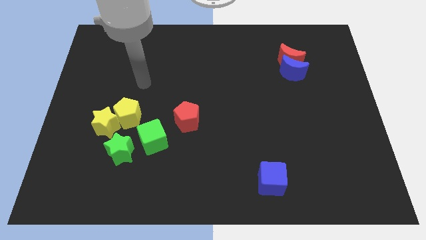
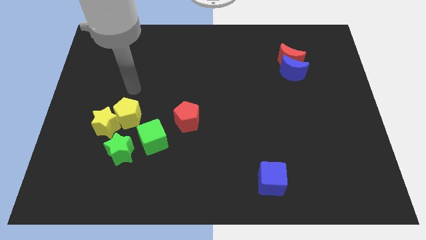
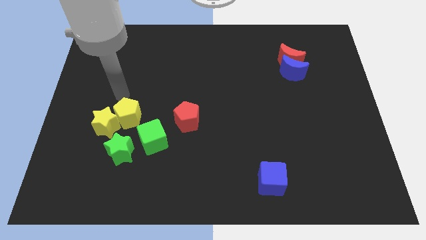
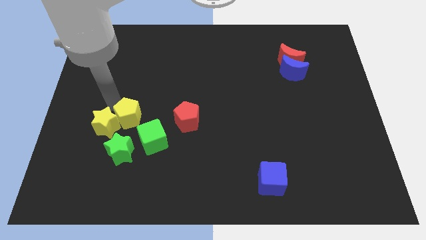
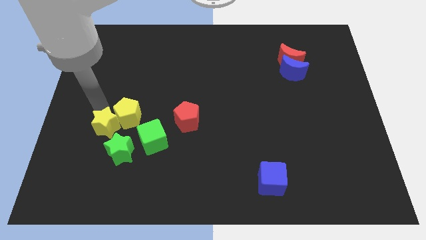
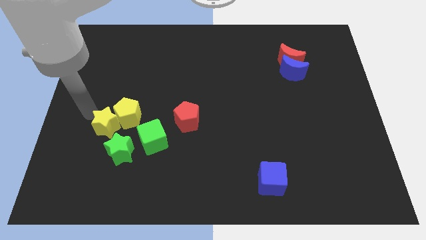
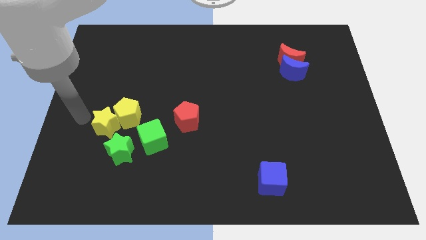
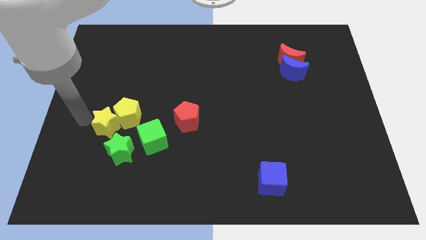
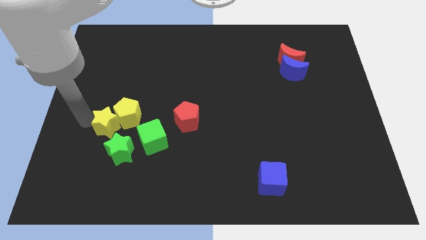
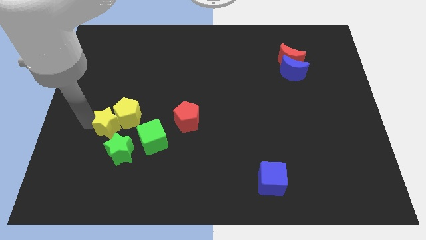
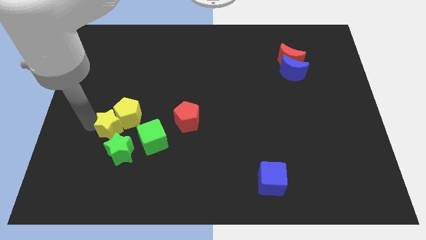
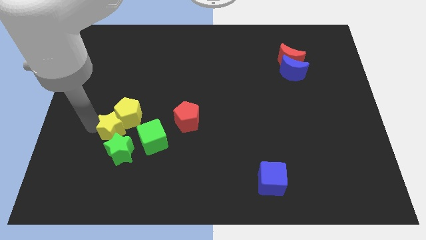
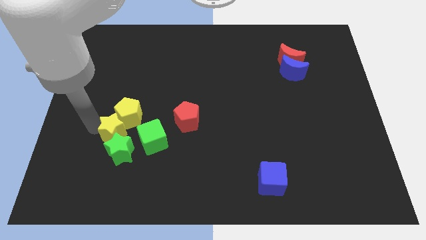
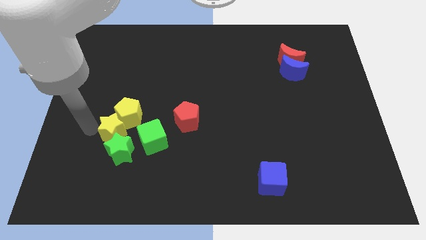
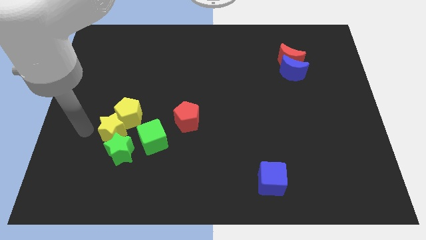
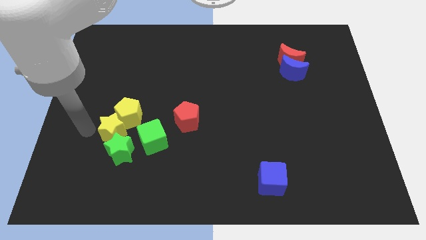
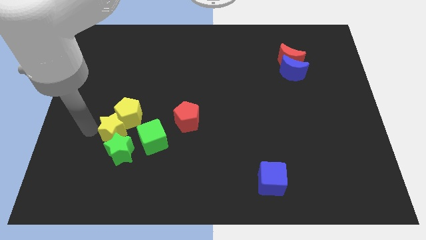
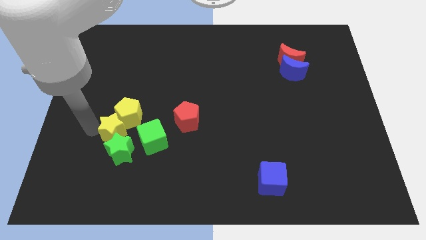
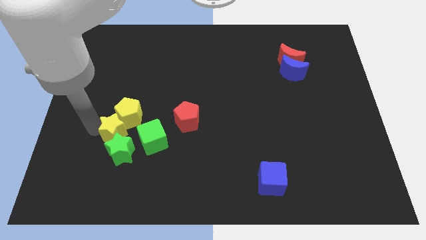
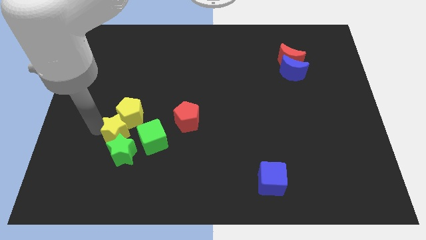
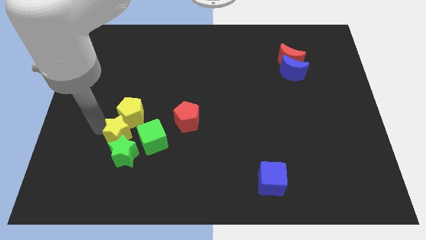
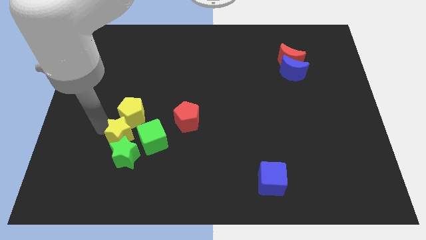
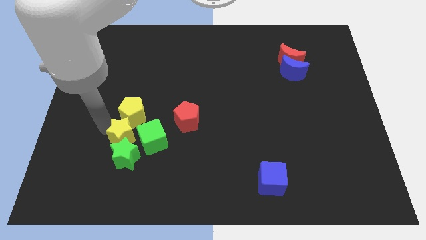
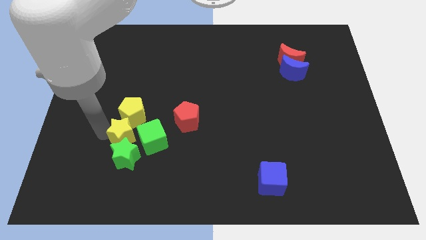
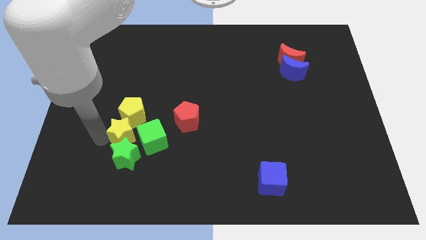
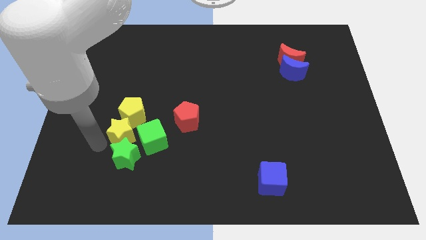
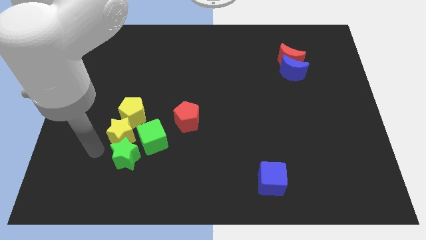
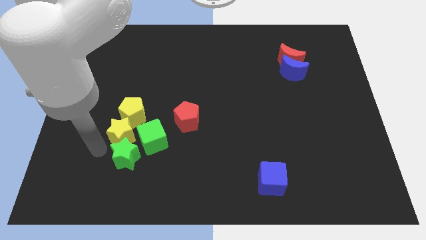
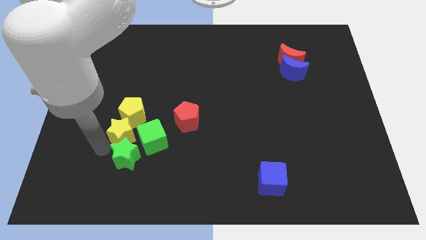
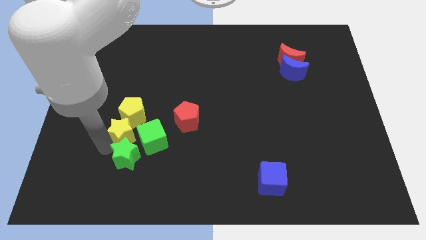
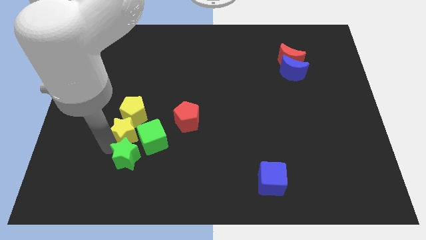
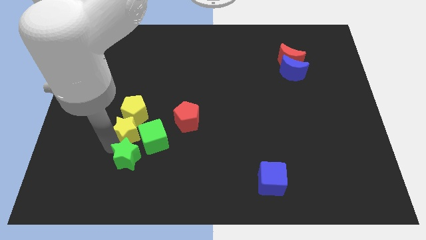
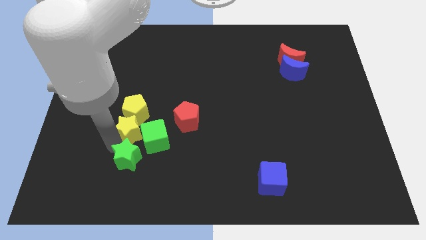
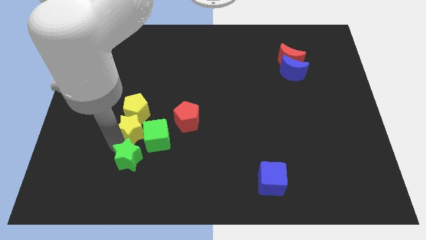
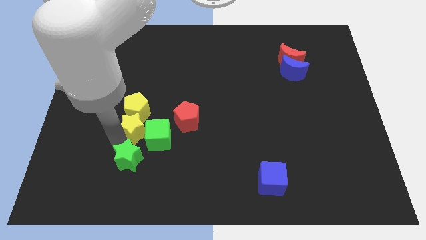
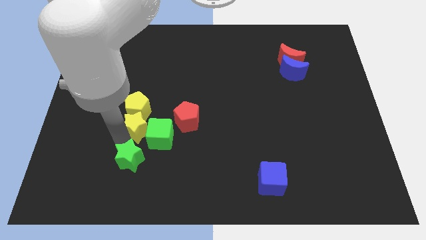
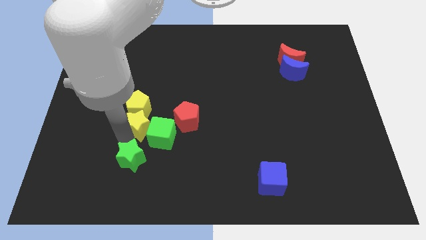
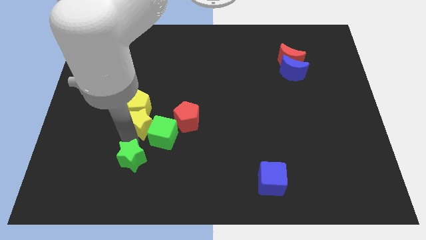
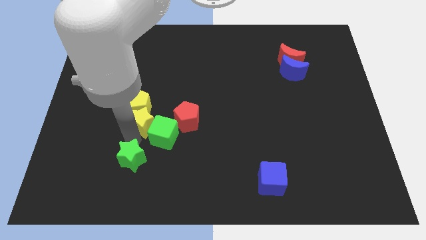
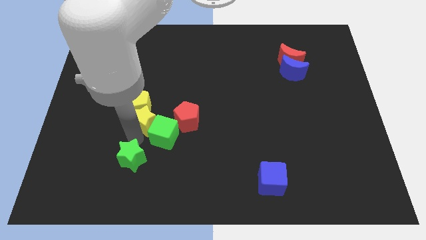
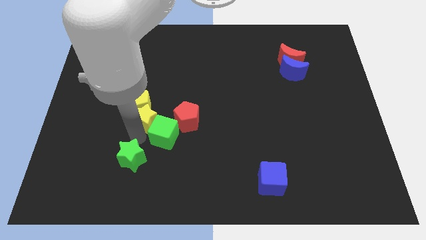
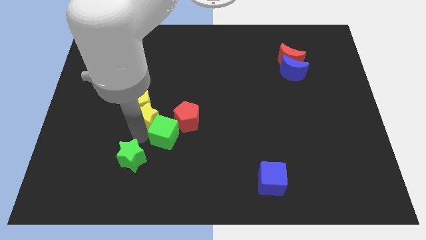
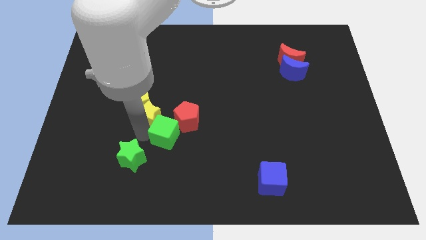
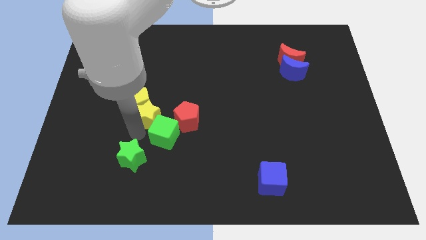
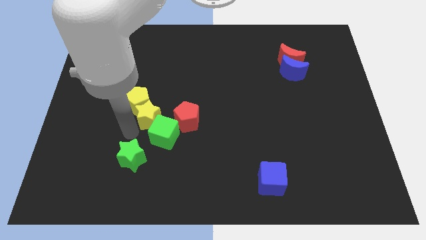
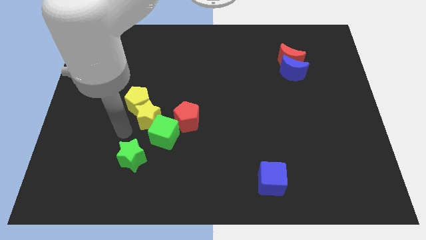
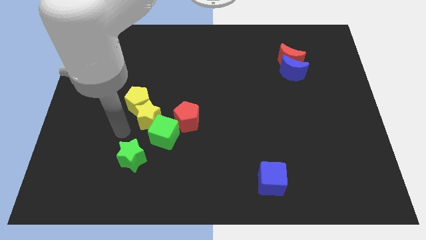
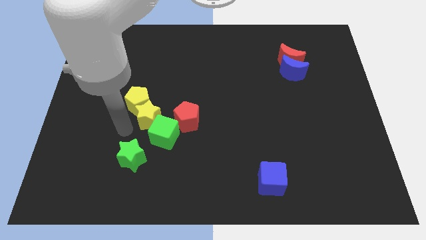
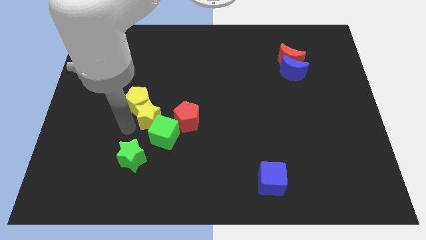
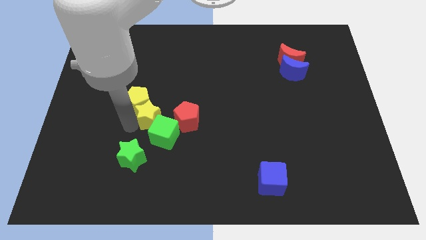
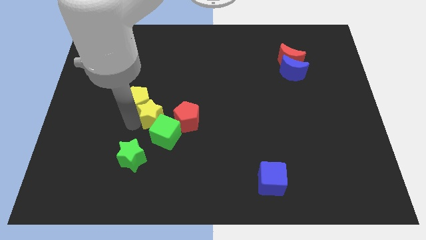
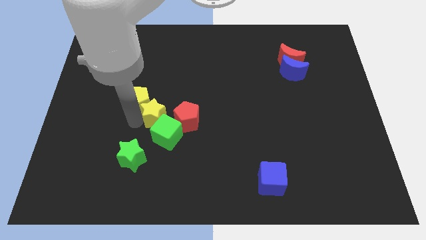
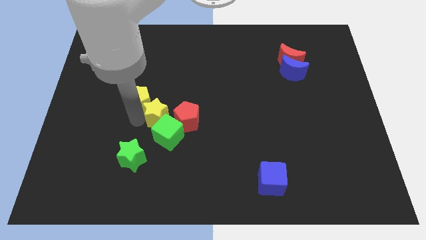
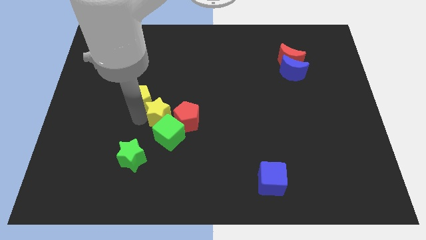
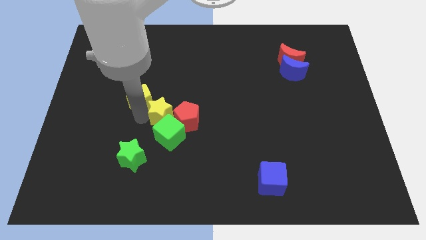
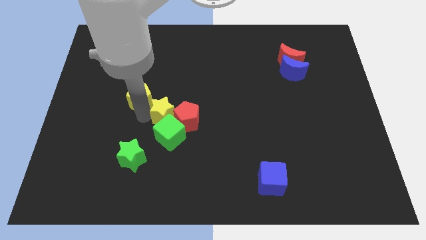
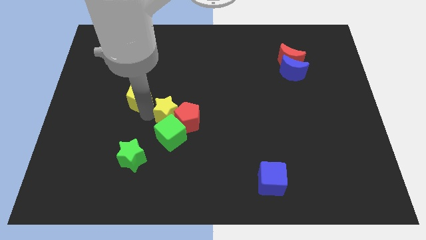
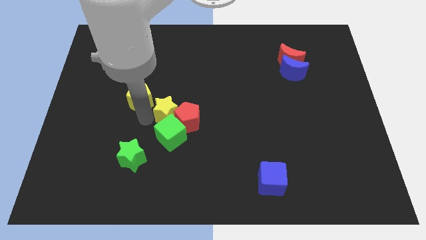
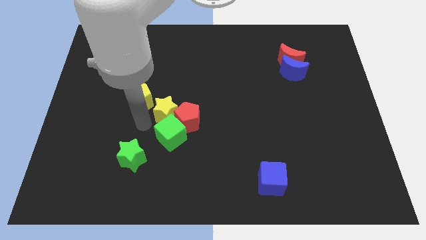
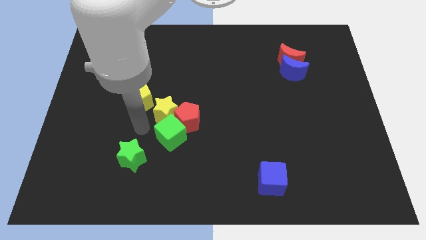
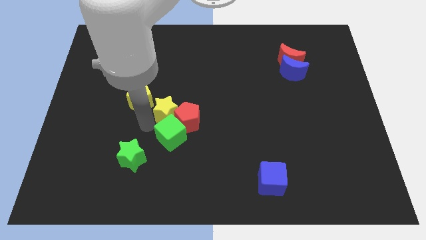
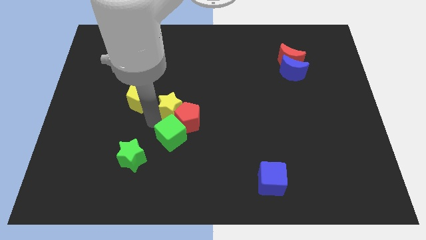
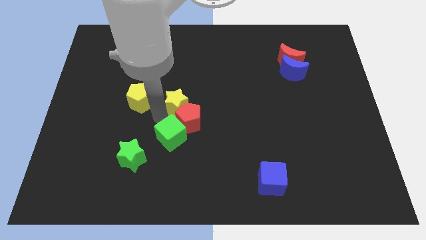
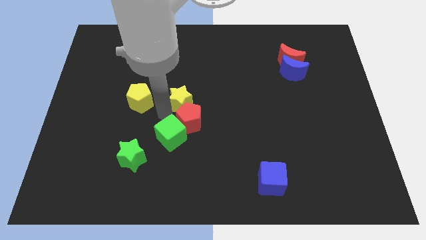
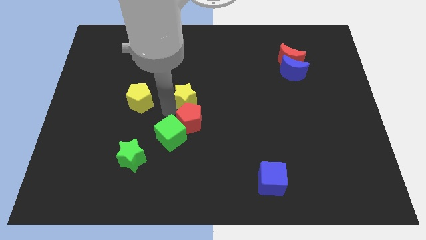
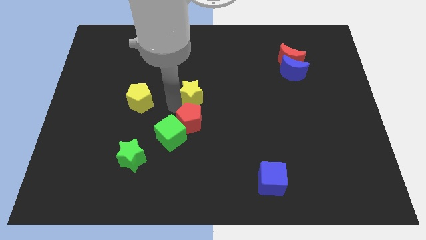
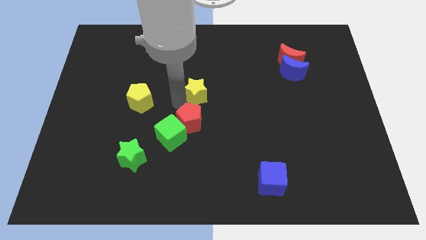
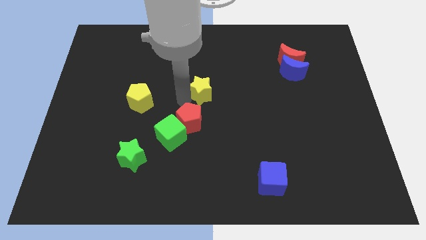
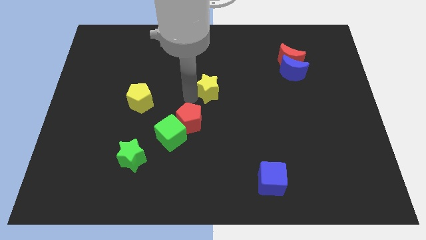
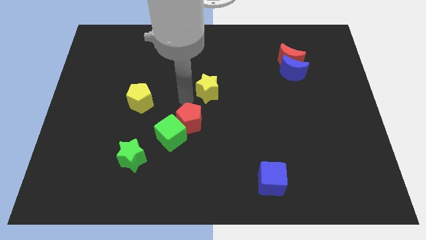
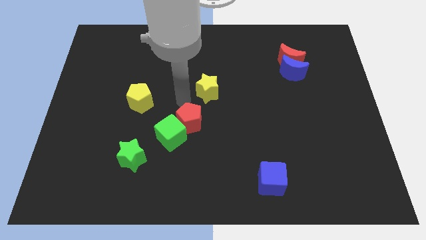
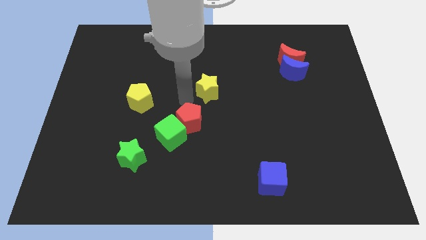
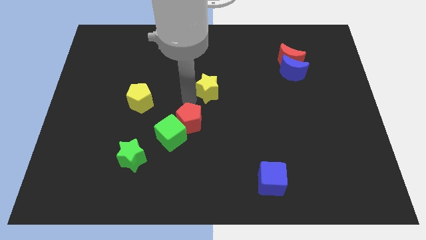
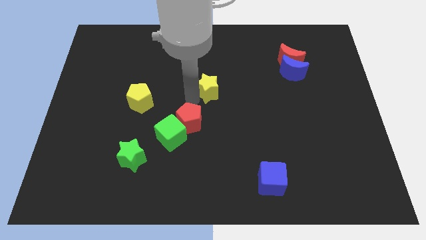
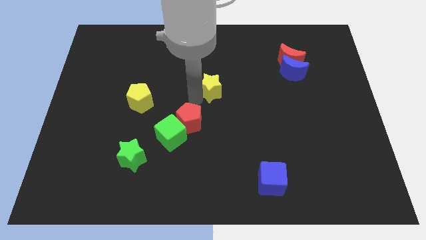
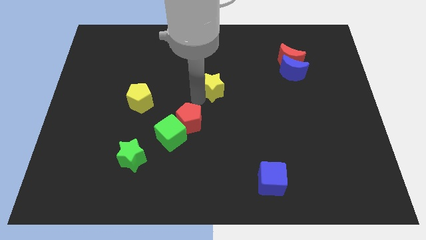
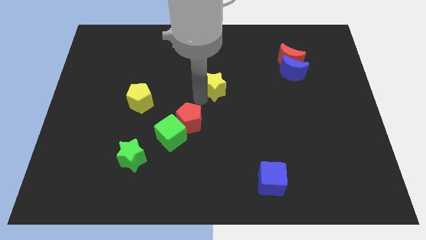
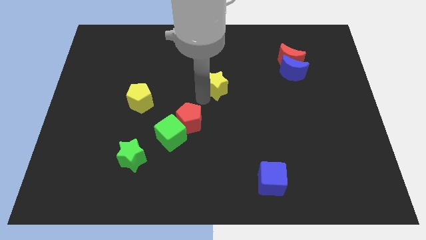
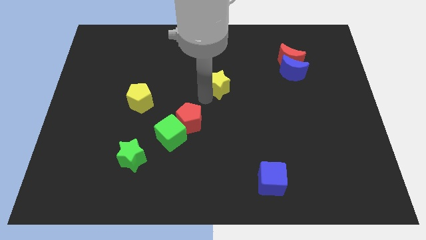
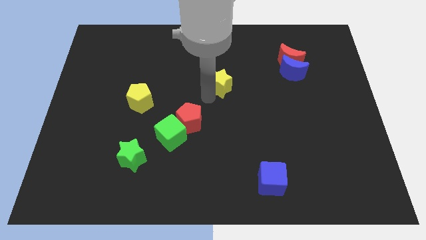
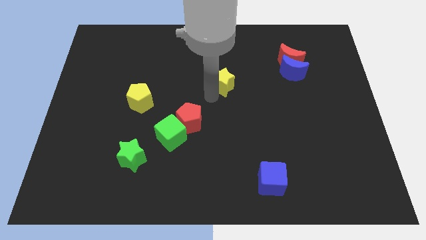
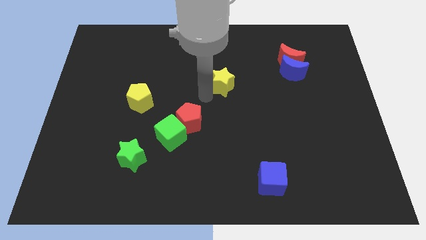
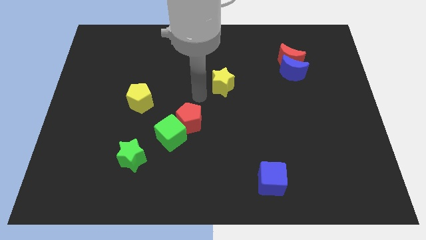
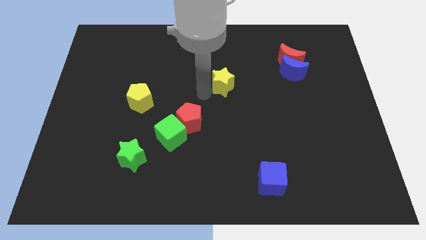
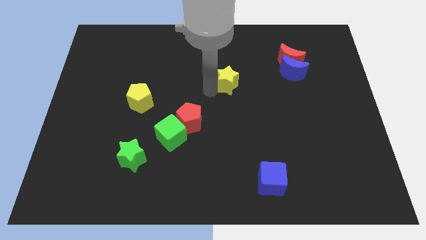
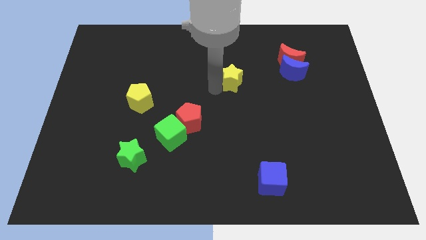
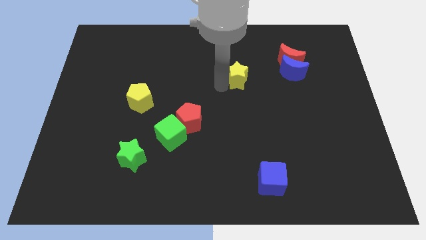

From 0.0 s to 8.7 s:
put the yellow star to the left of the blue moon
